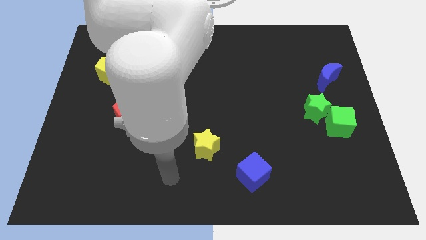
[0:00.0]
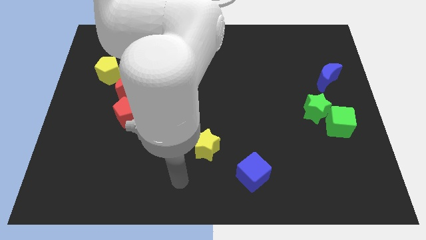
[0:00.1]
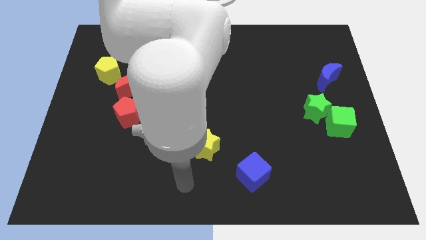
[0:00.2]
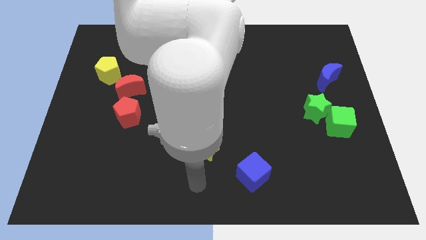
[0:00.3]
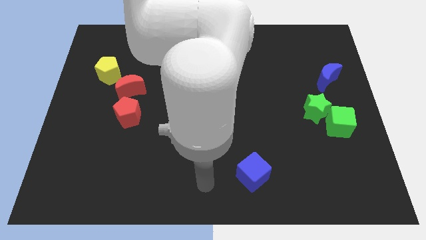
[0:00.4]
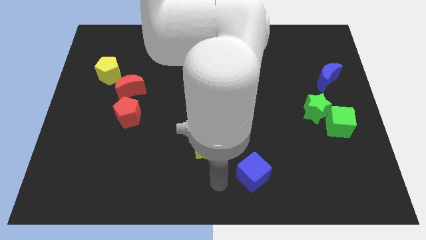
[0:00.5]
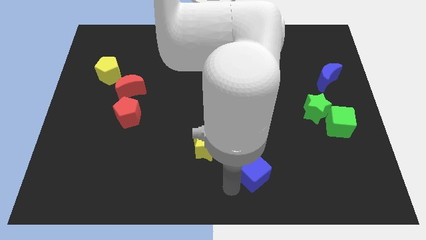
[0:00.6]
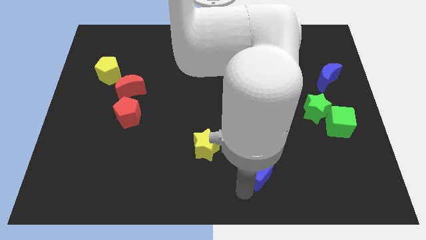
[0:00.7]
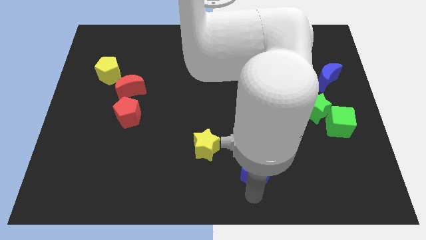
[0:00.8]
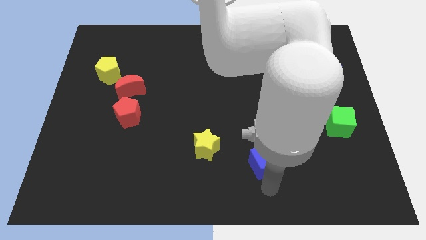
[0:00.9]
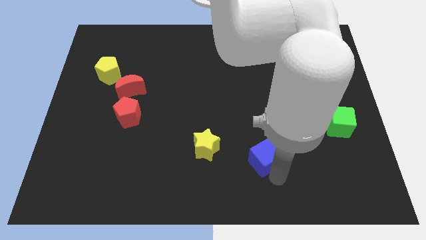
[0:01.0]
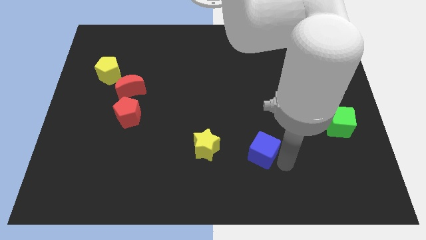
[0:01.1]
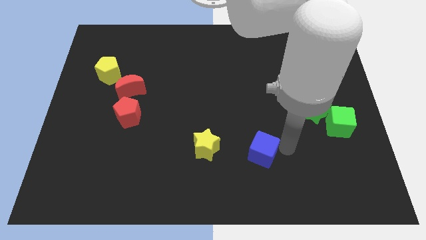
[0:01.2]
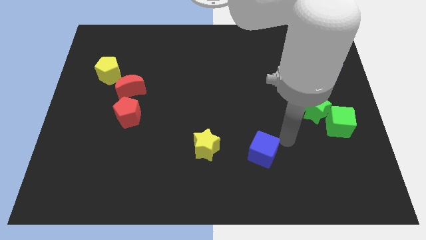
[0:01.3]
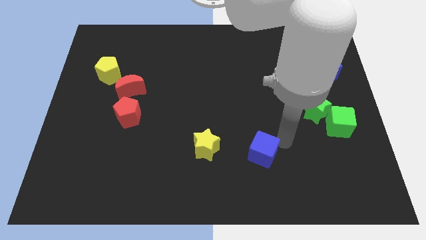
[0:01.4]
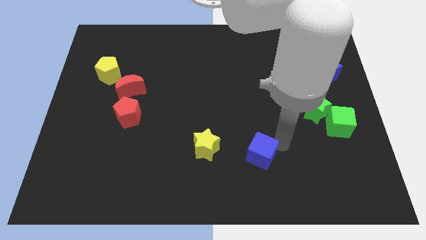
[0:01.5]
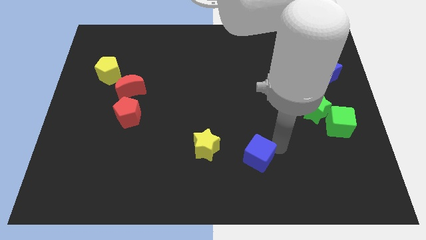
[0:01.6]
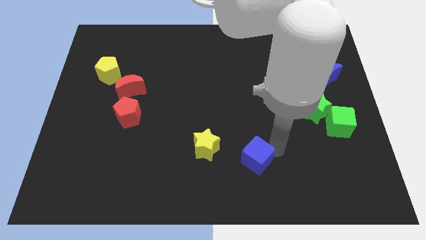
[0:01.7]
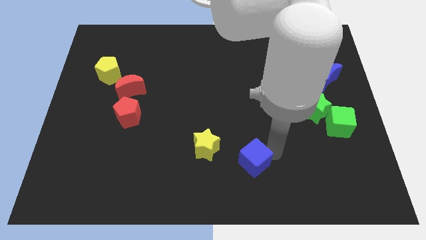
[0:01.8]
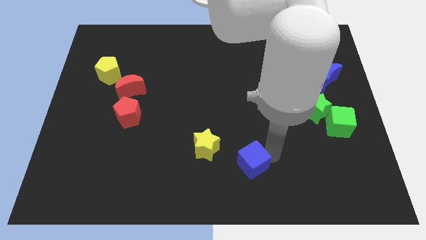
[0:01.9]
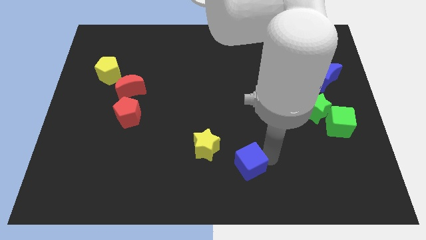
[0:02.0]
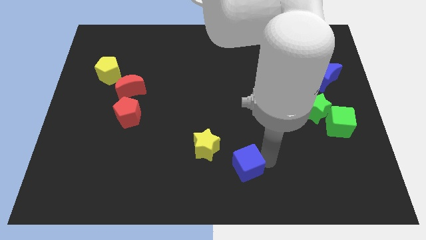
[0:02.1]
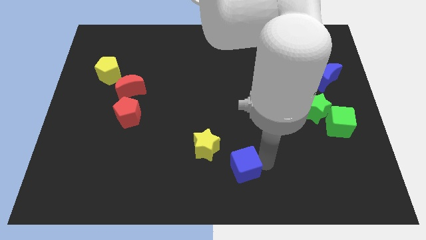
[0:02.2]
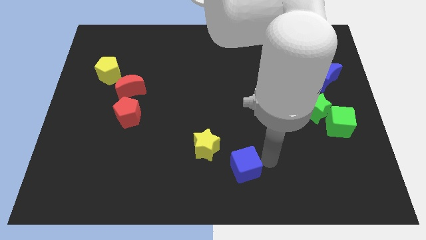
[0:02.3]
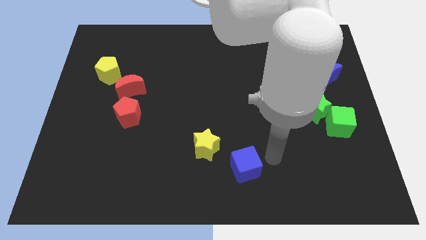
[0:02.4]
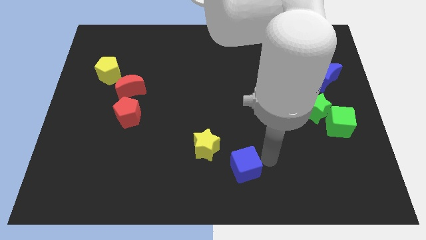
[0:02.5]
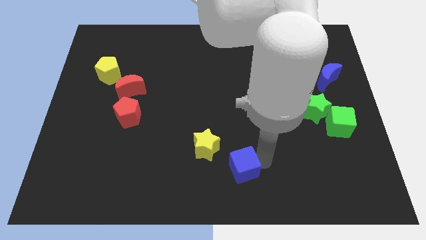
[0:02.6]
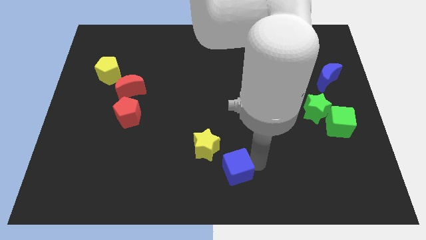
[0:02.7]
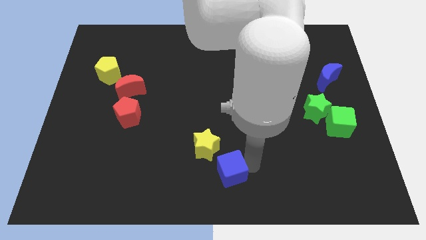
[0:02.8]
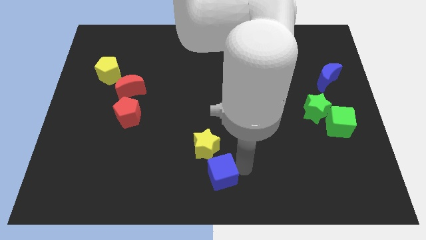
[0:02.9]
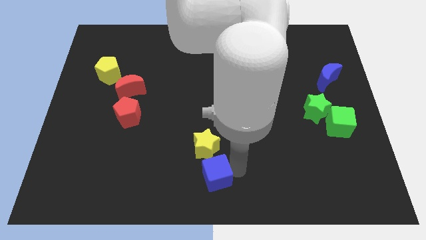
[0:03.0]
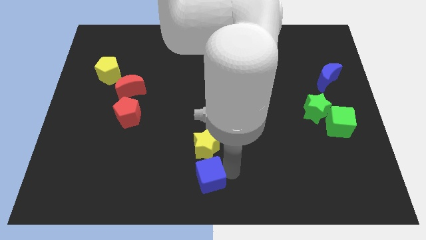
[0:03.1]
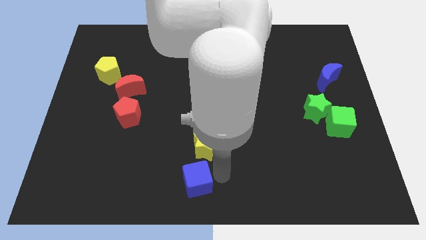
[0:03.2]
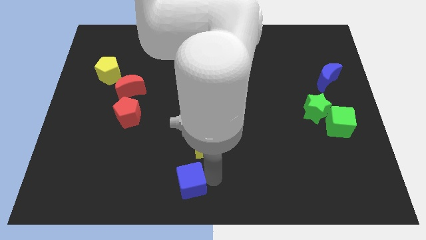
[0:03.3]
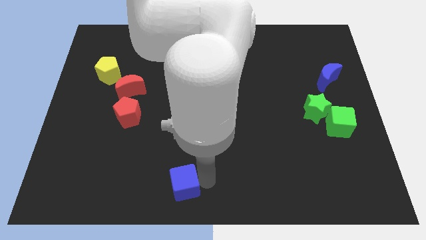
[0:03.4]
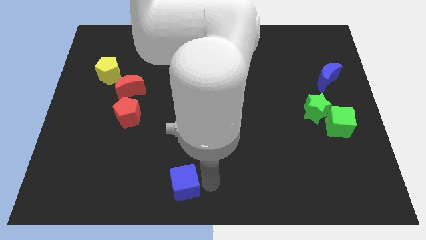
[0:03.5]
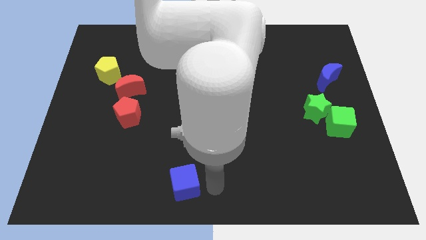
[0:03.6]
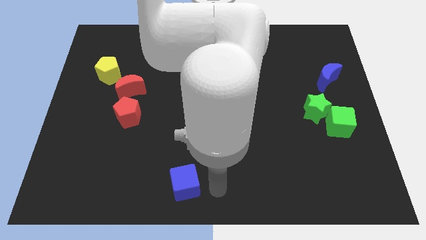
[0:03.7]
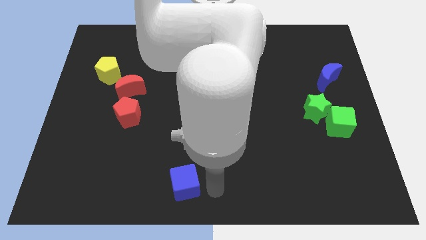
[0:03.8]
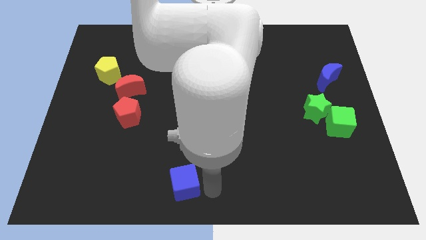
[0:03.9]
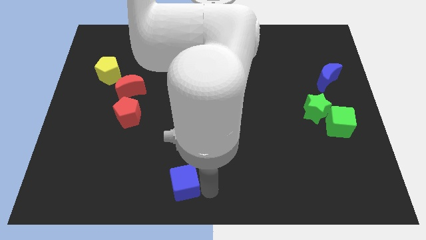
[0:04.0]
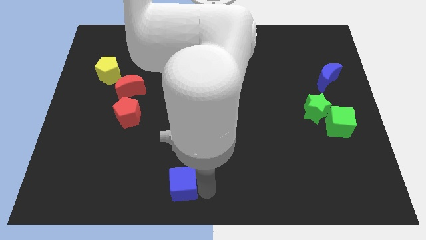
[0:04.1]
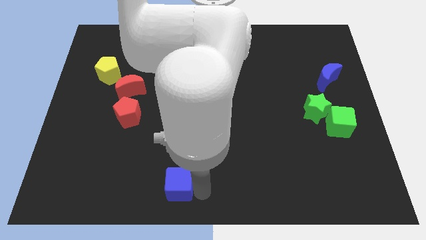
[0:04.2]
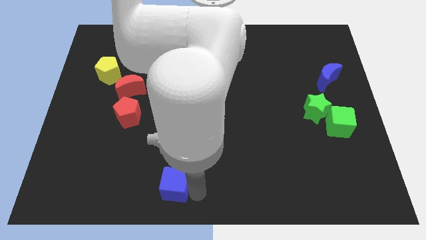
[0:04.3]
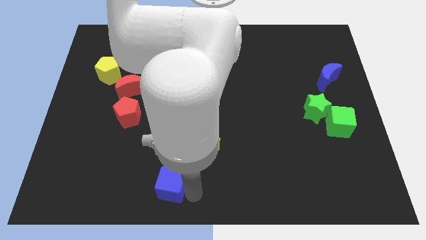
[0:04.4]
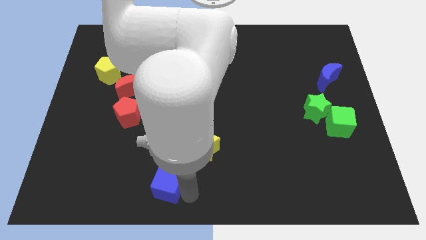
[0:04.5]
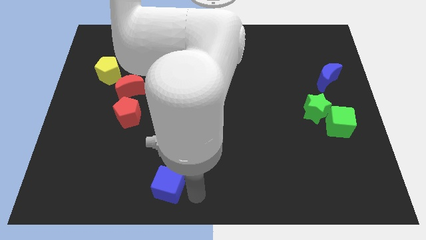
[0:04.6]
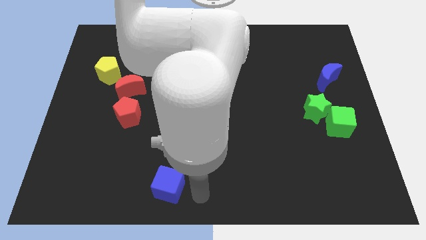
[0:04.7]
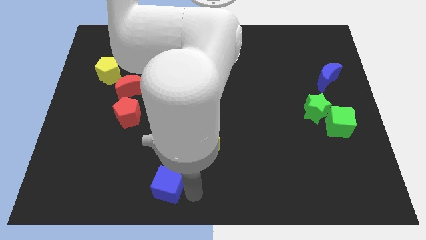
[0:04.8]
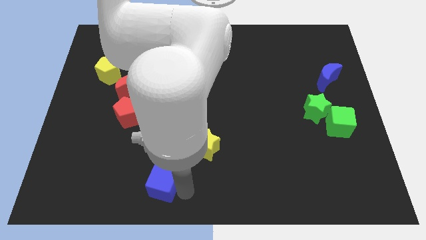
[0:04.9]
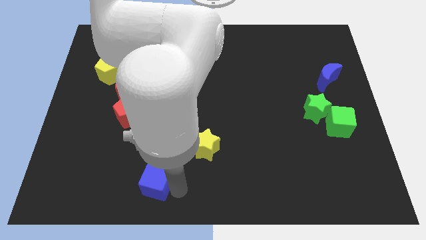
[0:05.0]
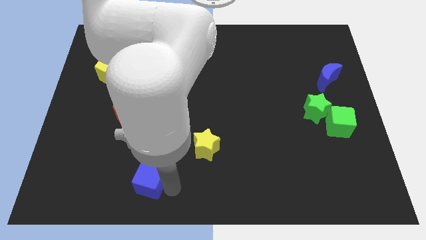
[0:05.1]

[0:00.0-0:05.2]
slide the blue cube left

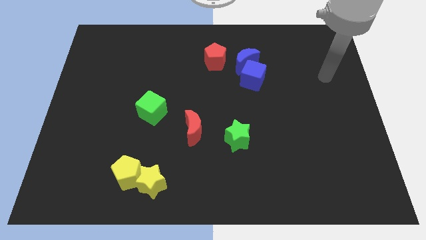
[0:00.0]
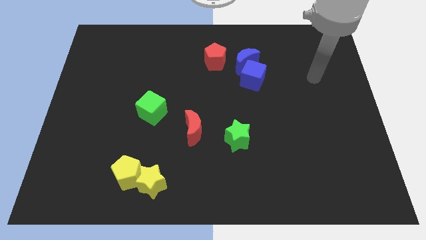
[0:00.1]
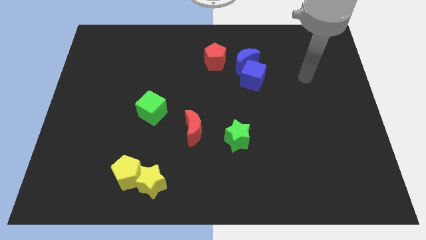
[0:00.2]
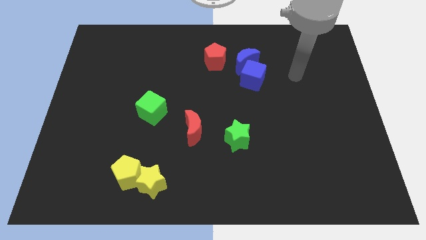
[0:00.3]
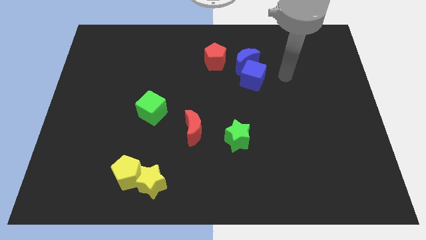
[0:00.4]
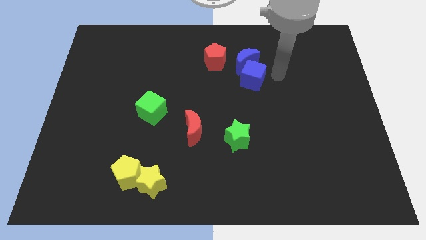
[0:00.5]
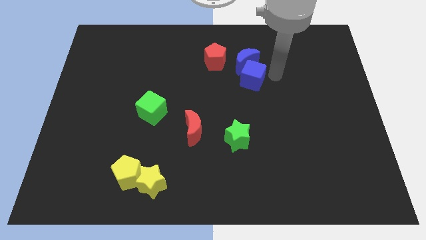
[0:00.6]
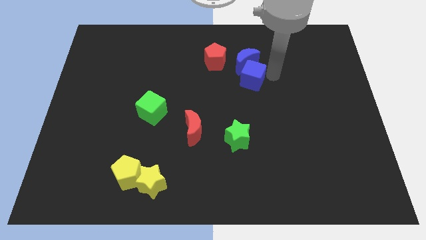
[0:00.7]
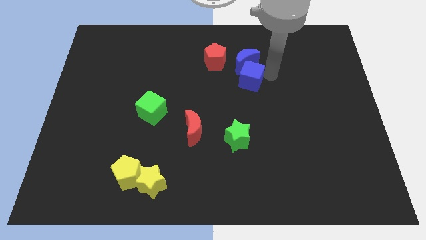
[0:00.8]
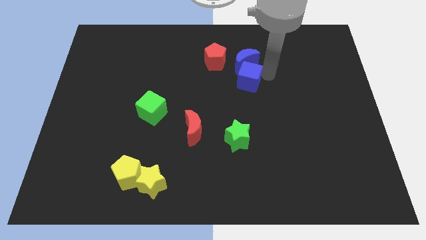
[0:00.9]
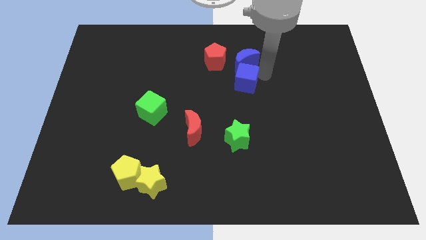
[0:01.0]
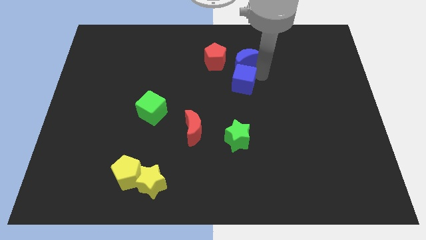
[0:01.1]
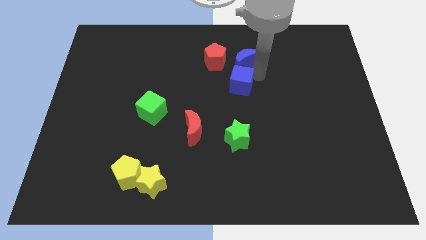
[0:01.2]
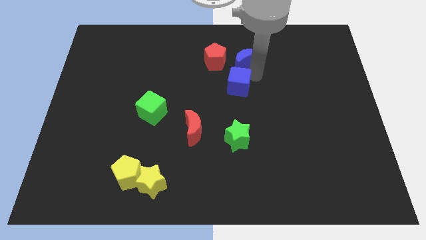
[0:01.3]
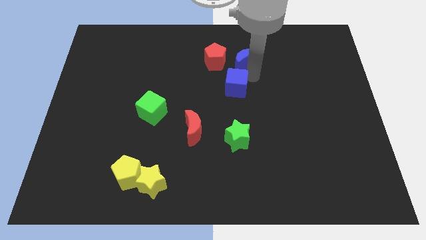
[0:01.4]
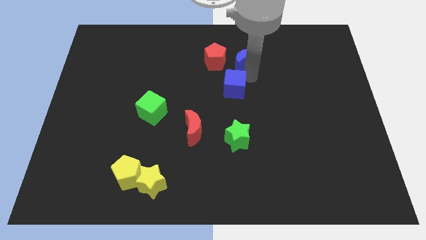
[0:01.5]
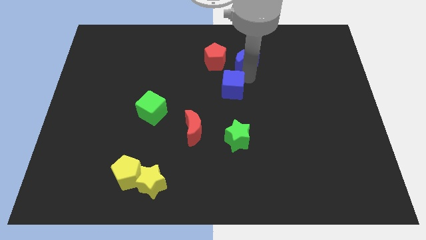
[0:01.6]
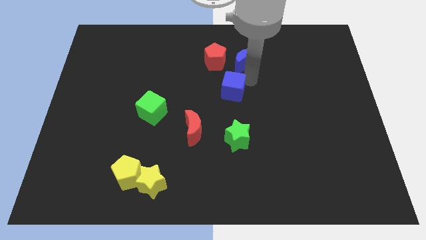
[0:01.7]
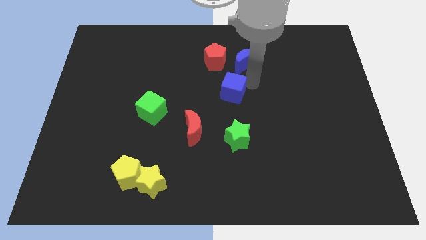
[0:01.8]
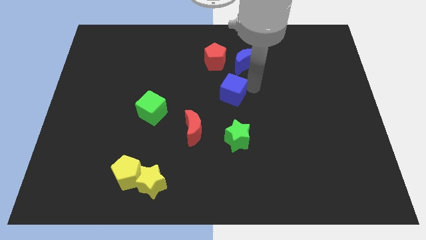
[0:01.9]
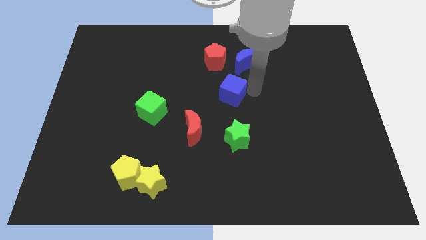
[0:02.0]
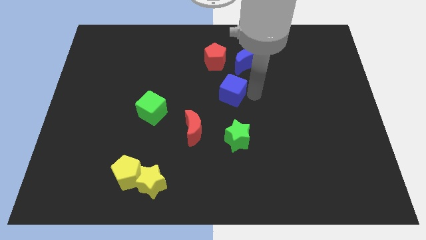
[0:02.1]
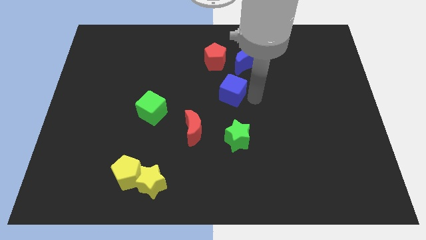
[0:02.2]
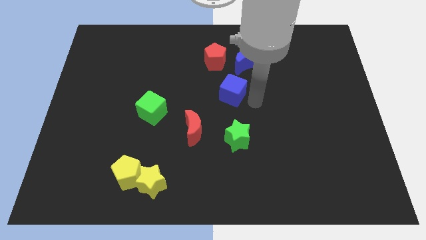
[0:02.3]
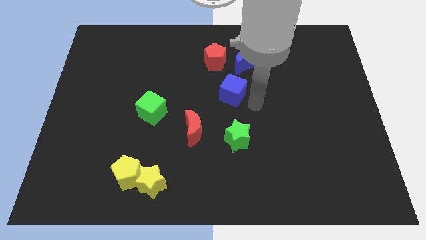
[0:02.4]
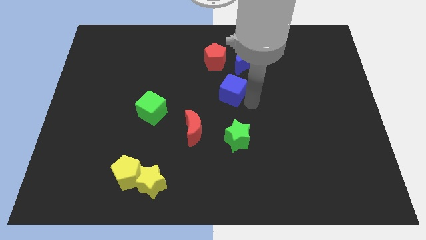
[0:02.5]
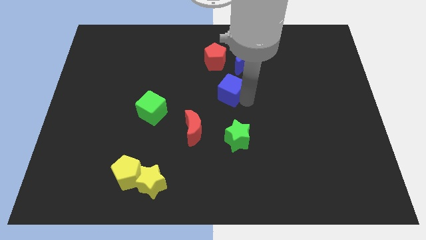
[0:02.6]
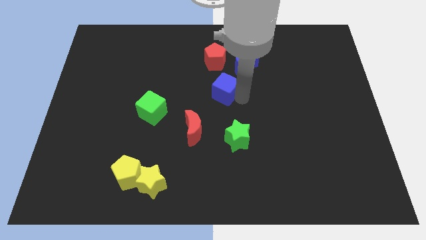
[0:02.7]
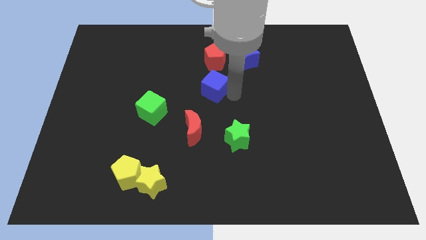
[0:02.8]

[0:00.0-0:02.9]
slightly push the blue cube to the left
